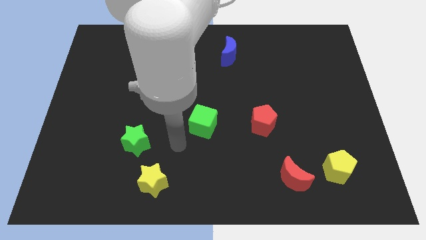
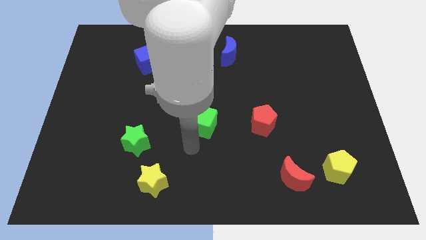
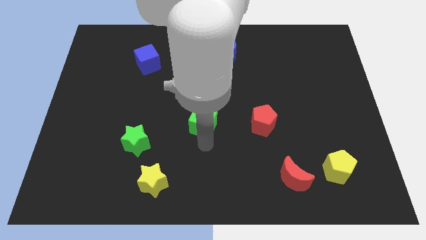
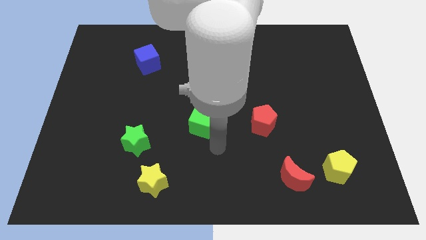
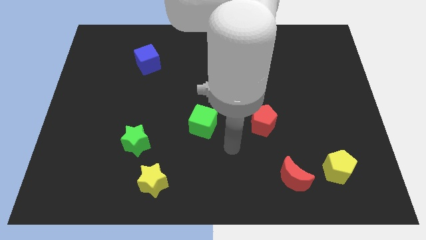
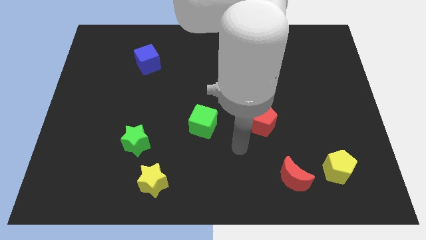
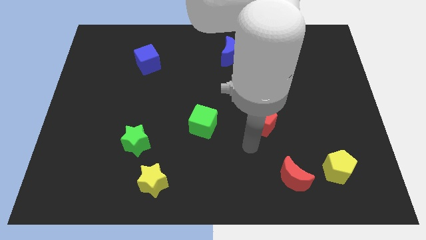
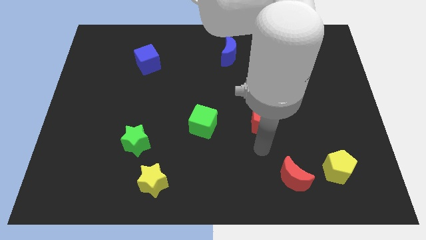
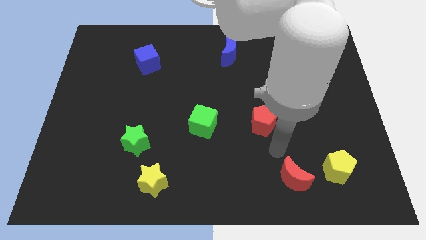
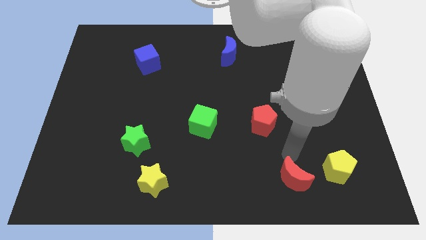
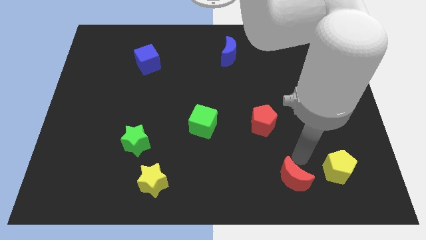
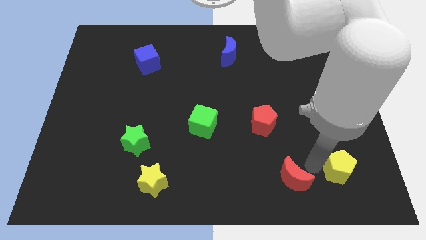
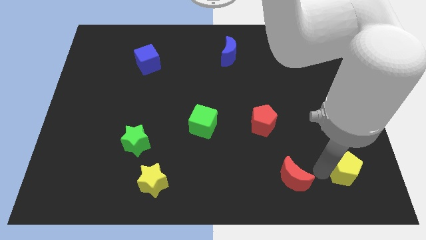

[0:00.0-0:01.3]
pull the red moon apart from the yellow pentagon

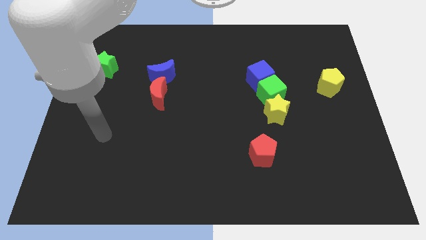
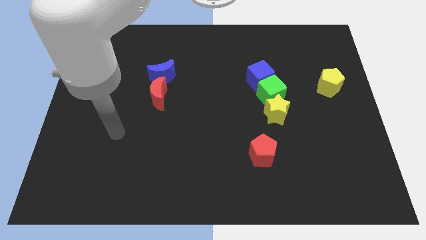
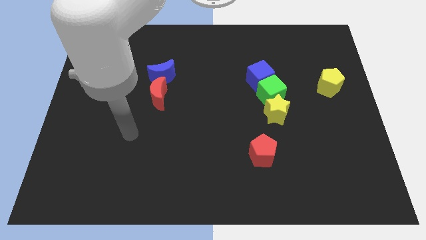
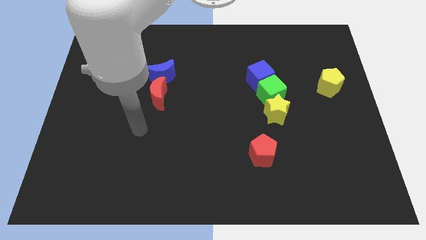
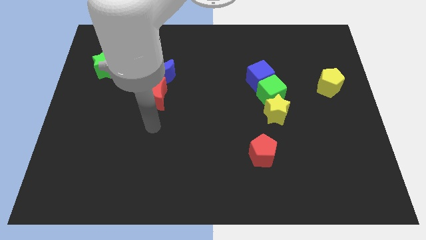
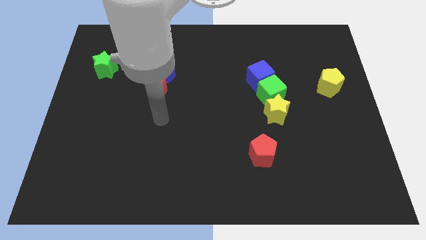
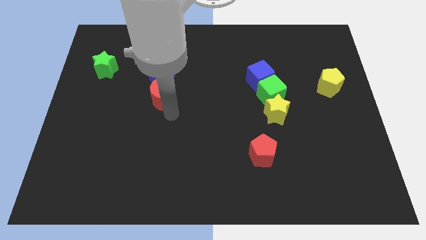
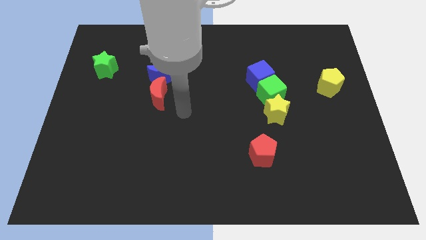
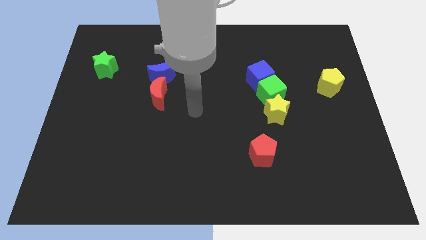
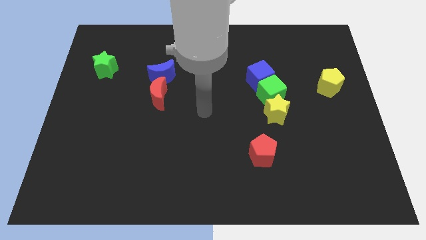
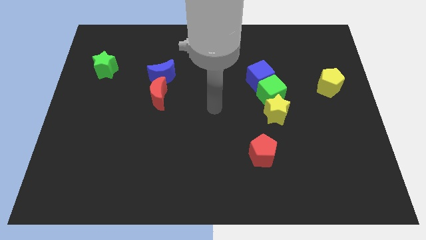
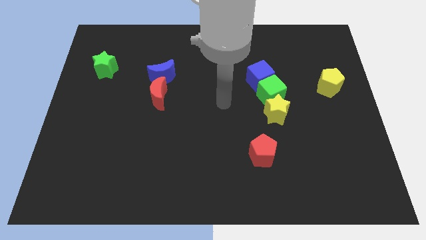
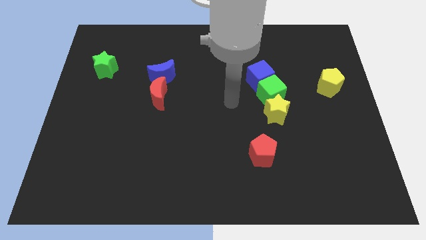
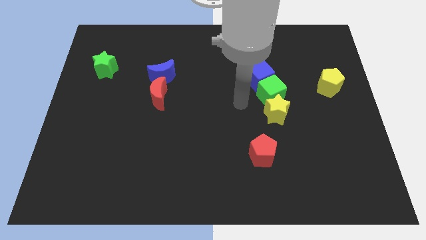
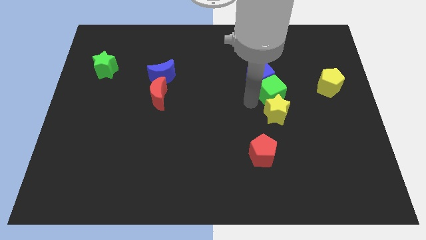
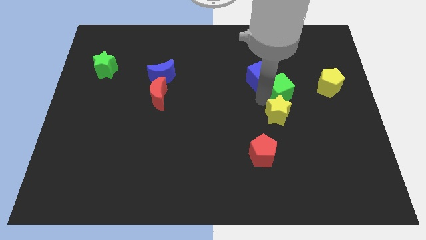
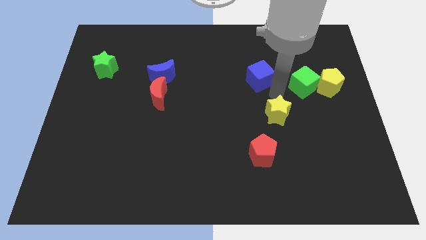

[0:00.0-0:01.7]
pull the blue cube apart from the green cube

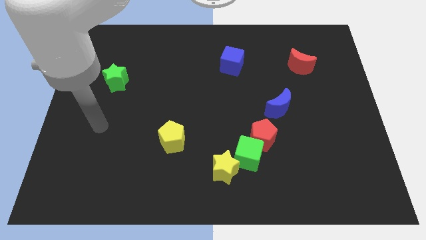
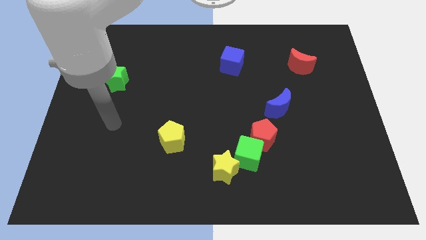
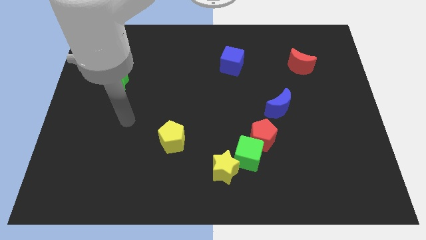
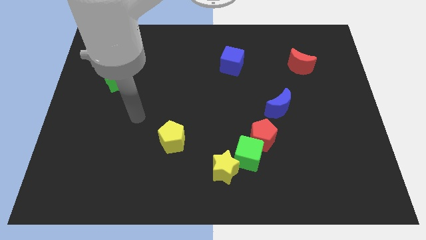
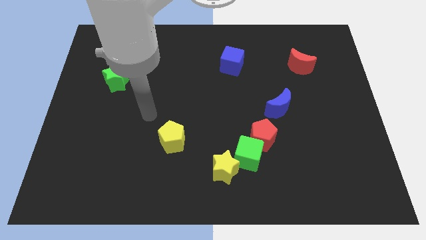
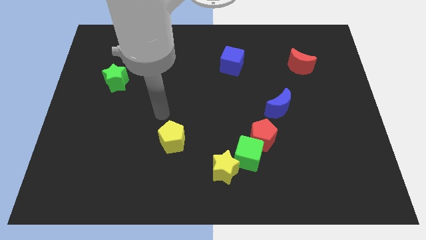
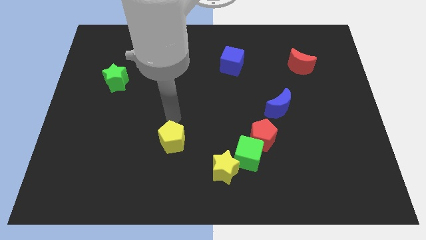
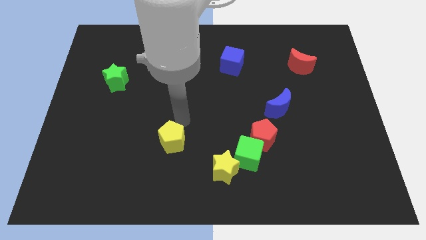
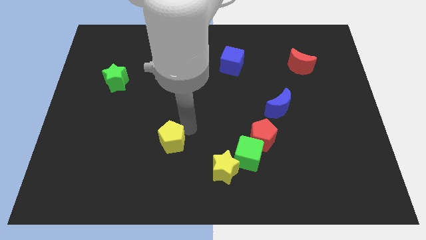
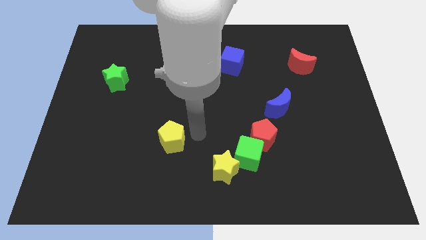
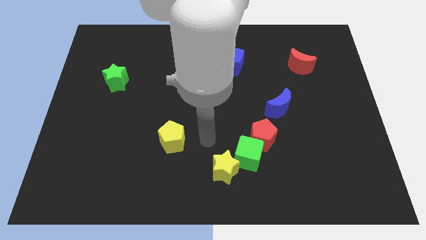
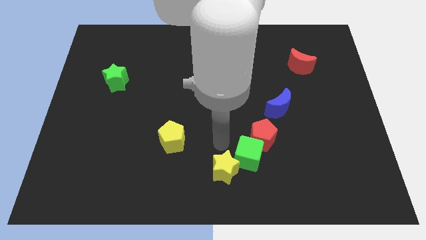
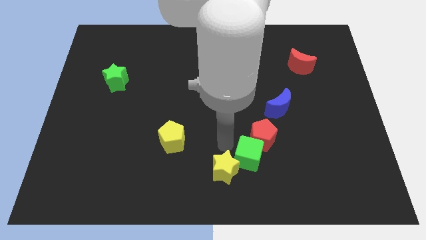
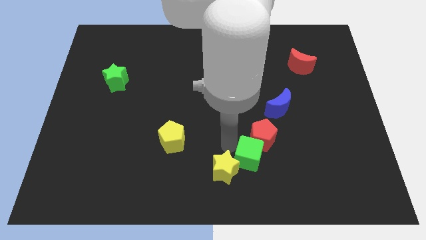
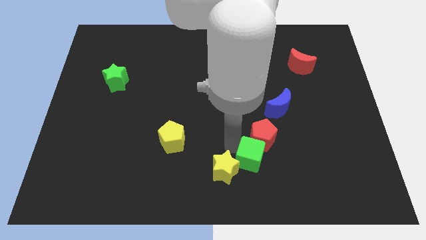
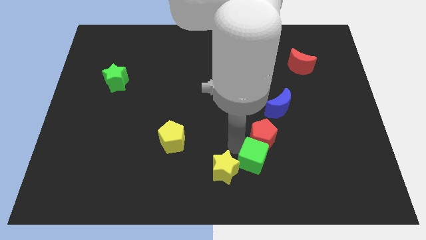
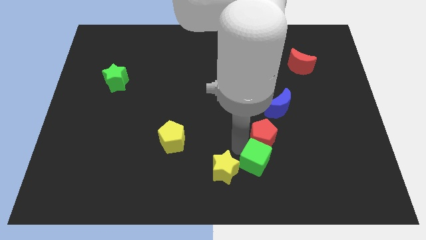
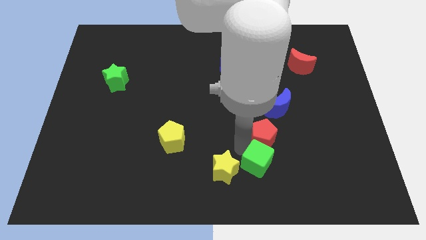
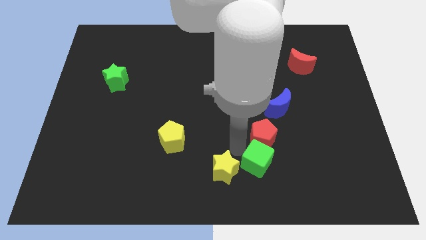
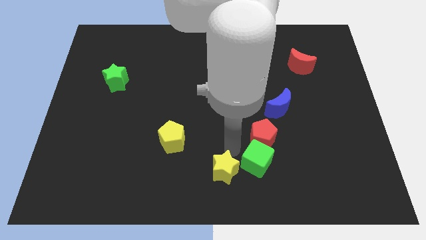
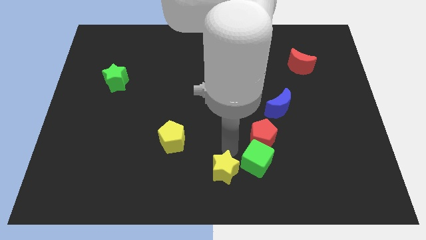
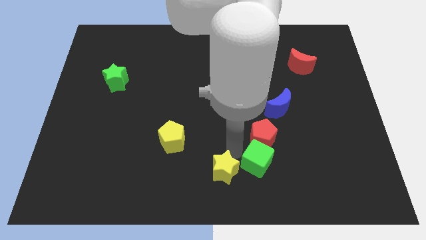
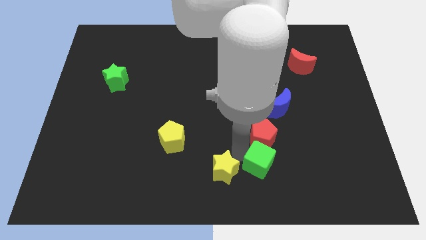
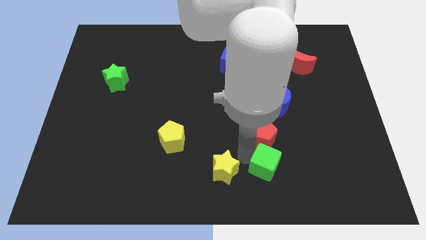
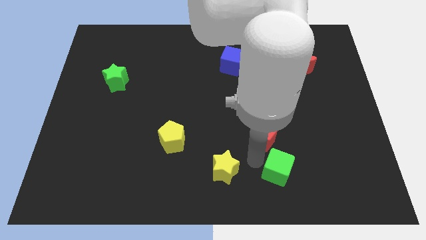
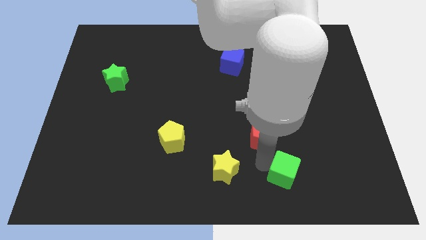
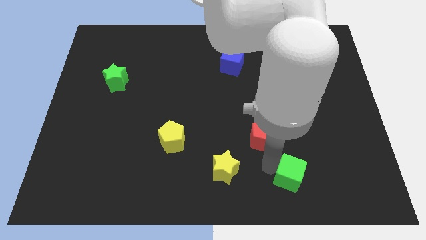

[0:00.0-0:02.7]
separate the green cube from the red pentagon and yellow star

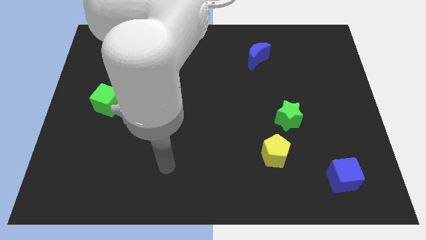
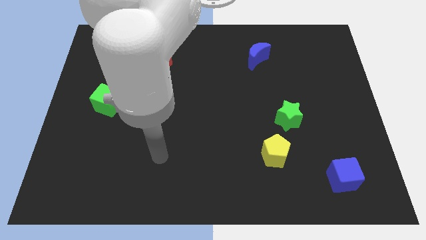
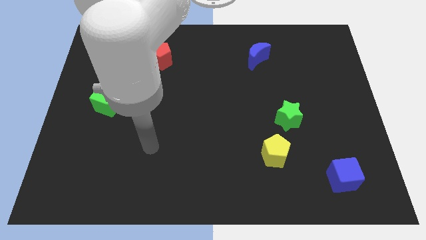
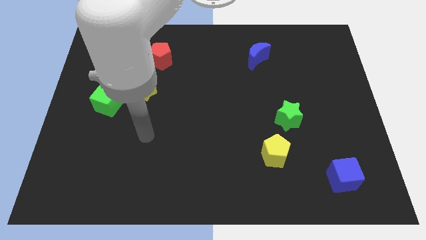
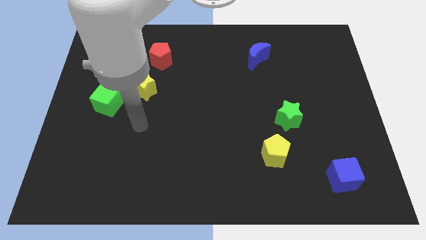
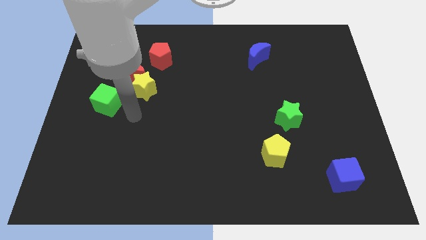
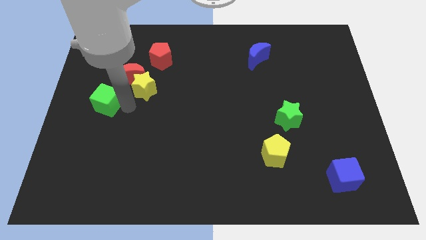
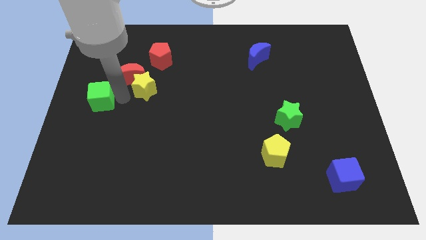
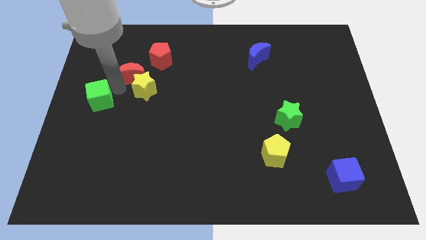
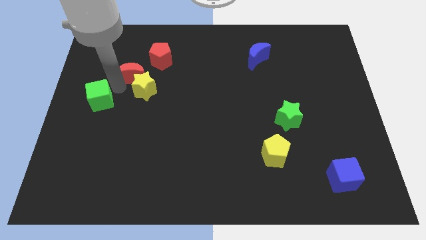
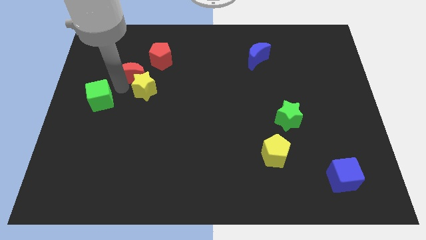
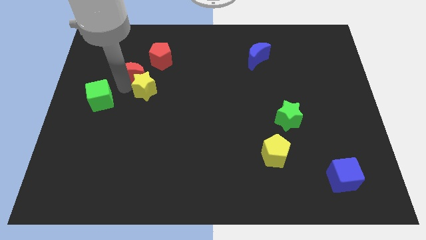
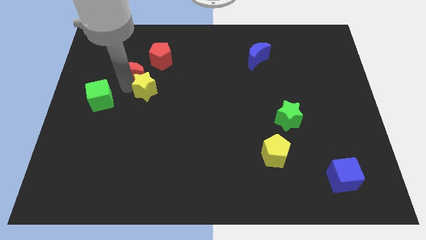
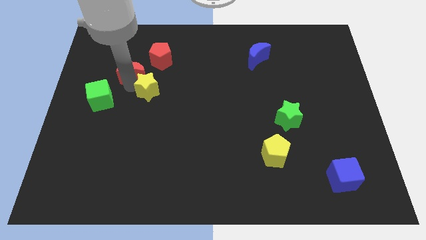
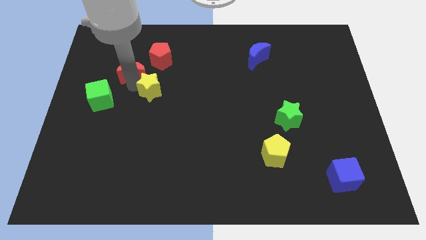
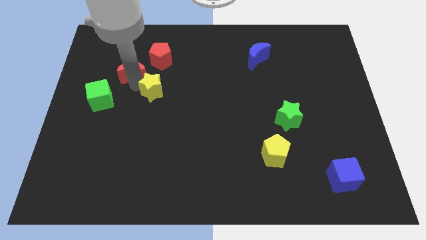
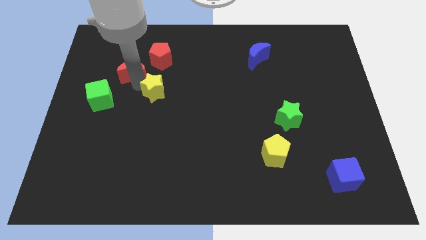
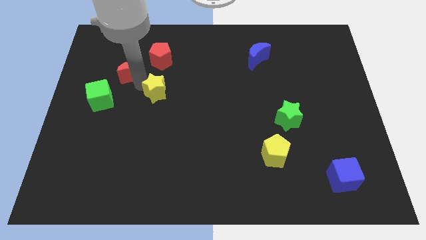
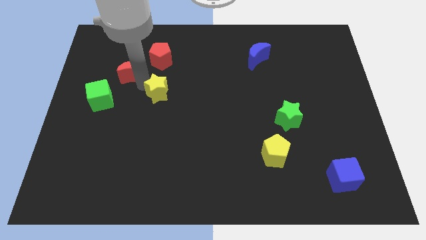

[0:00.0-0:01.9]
pull the yellow star apart from the red moon and green cube

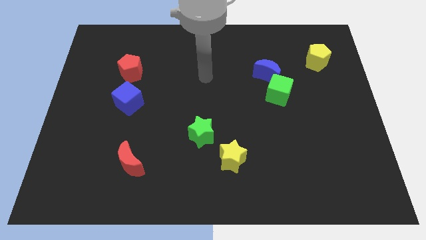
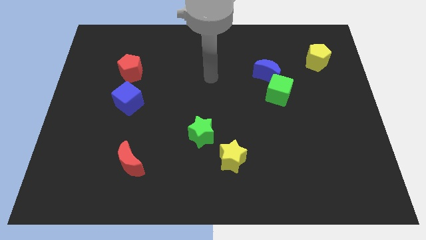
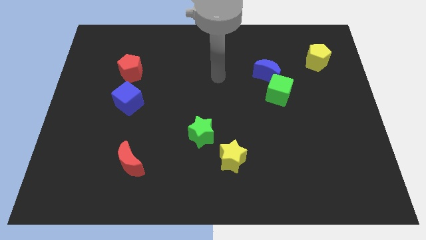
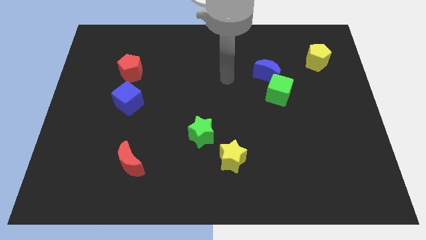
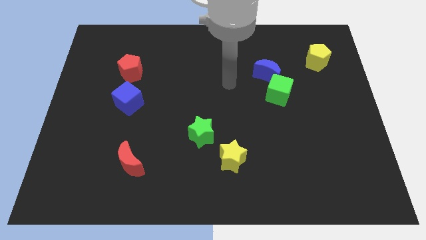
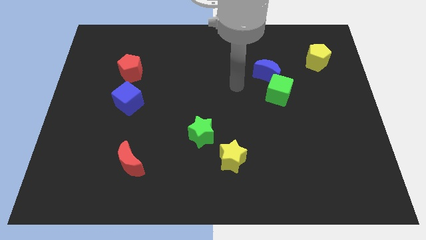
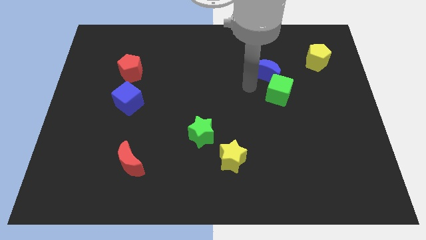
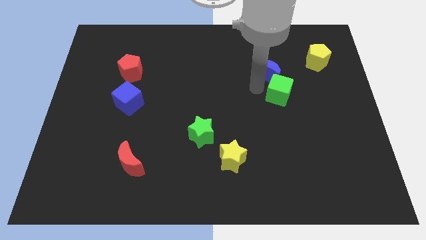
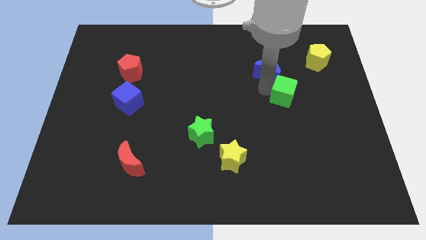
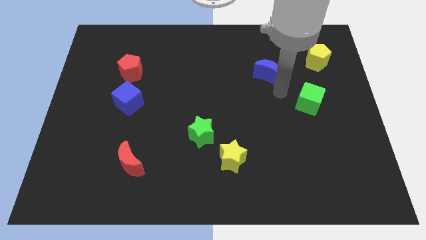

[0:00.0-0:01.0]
pull the blue moon apart from the green cube

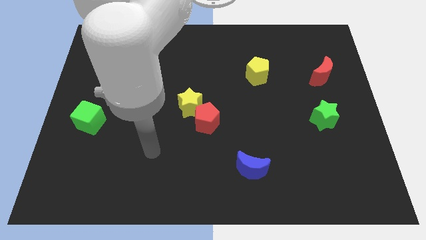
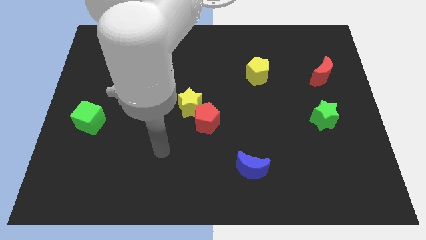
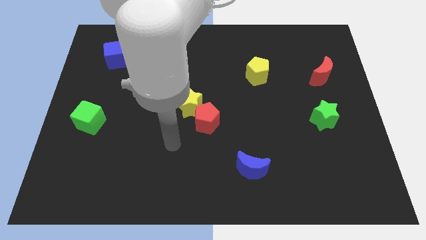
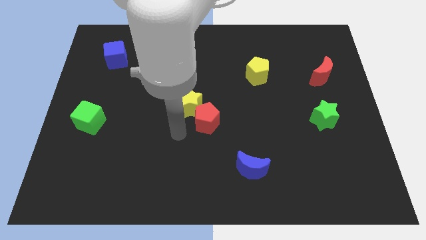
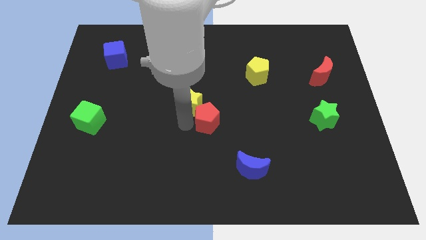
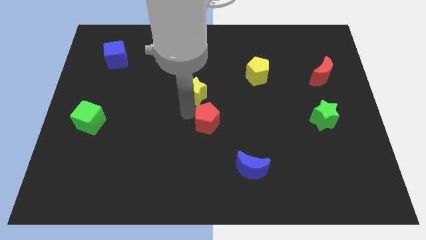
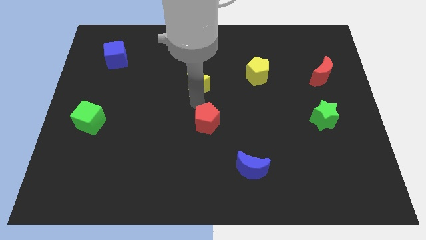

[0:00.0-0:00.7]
pull the red pentagon apart from the yellow star
